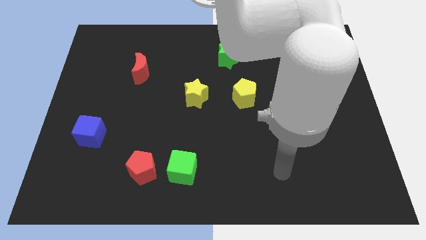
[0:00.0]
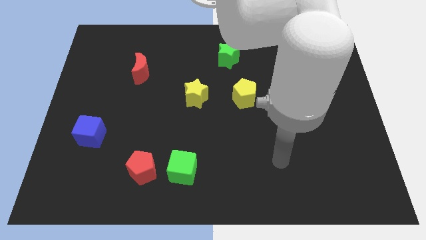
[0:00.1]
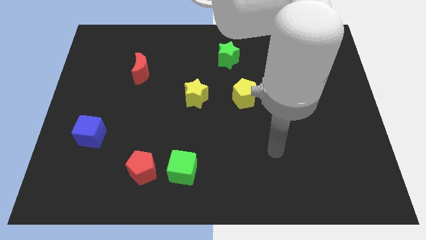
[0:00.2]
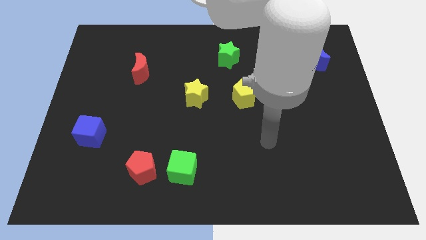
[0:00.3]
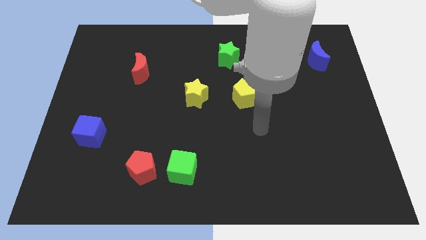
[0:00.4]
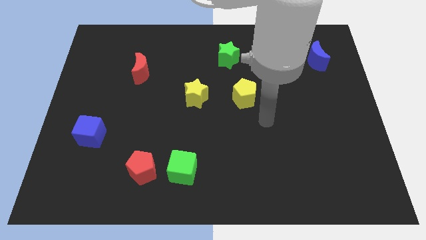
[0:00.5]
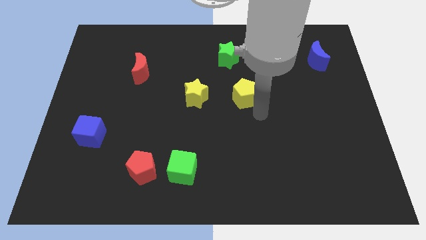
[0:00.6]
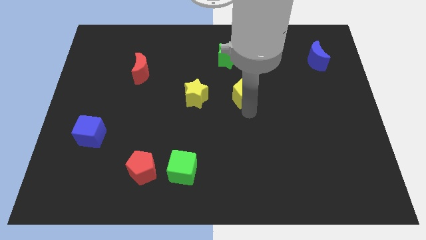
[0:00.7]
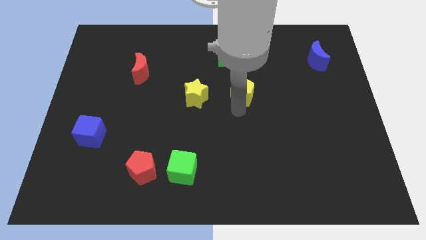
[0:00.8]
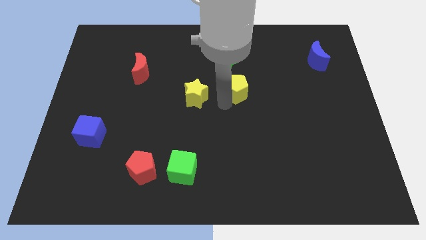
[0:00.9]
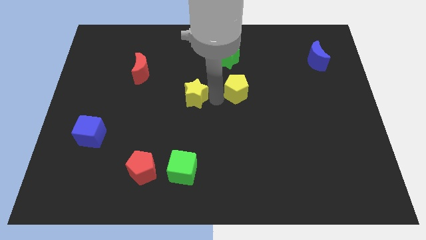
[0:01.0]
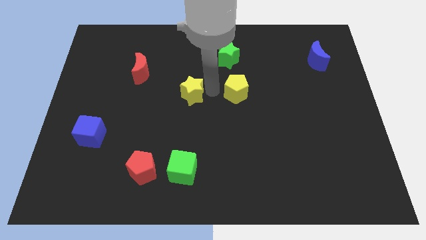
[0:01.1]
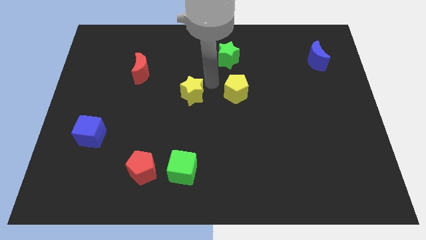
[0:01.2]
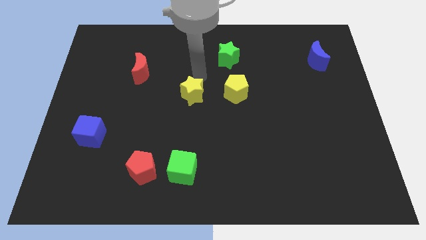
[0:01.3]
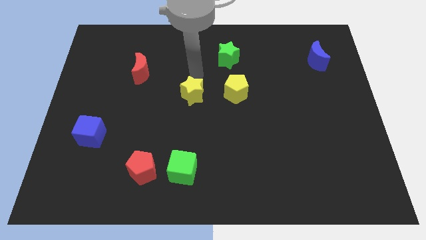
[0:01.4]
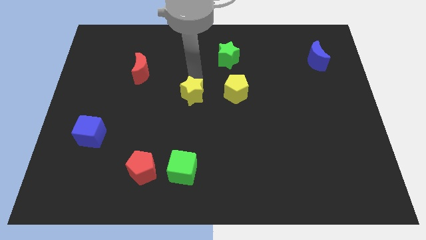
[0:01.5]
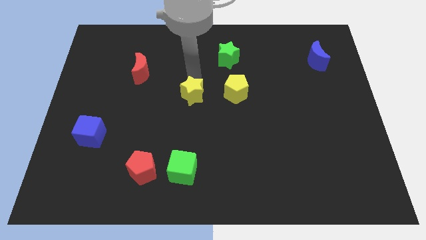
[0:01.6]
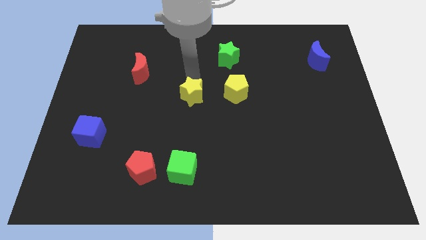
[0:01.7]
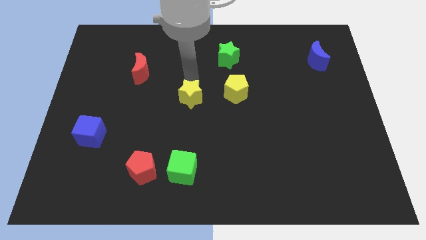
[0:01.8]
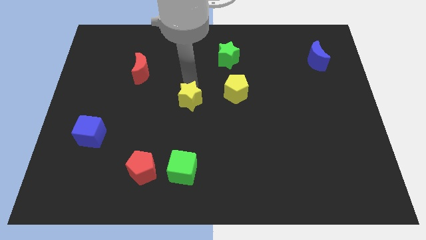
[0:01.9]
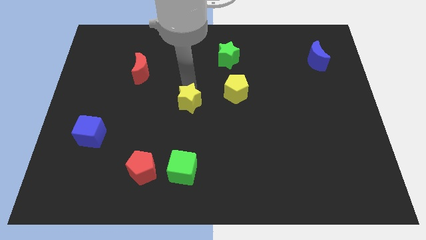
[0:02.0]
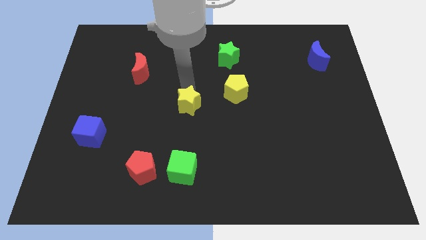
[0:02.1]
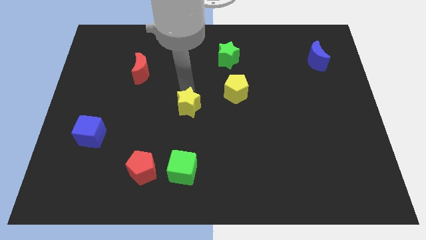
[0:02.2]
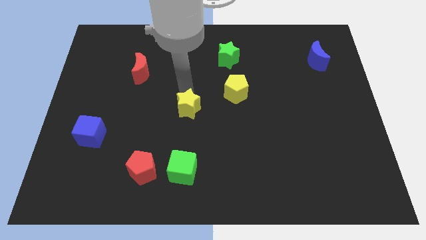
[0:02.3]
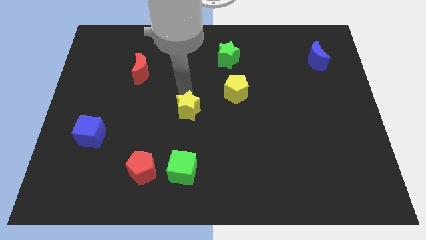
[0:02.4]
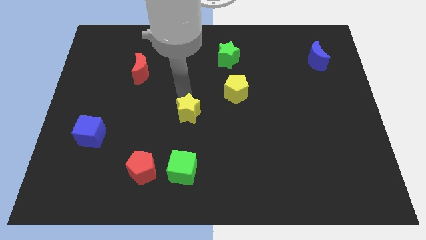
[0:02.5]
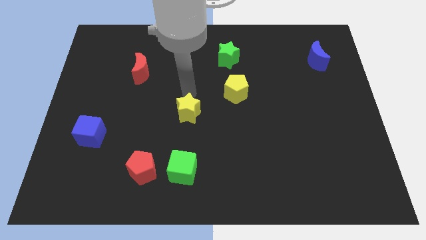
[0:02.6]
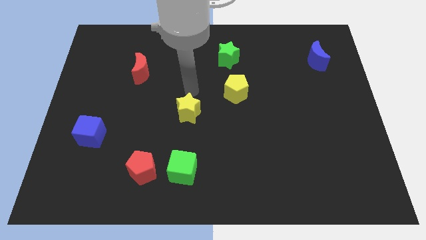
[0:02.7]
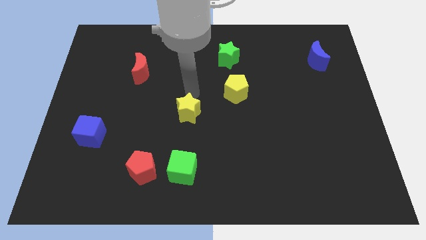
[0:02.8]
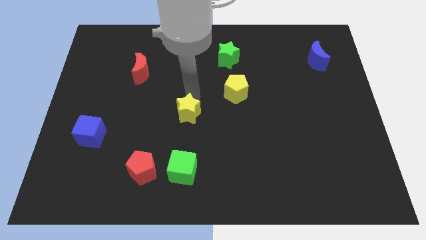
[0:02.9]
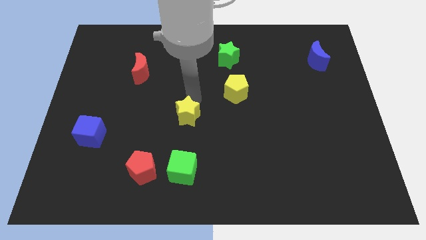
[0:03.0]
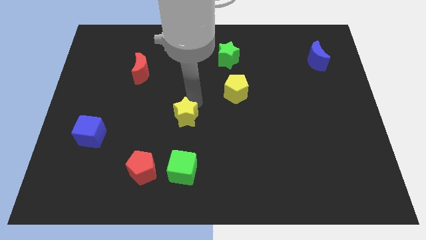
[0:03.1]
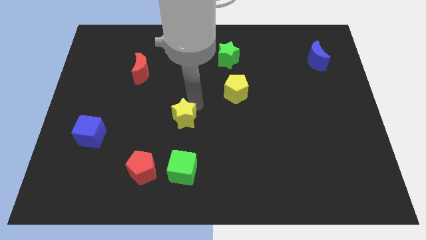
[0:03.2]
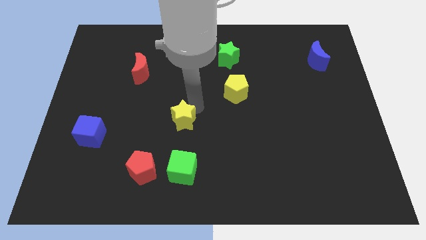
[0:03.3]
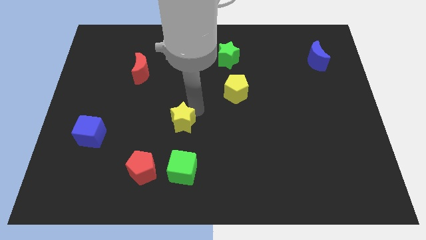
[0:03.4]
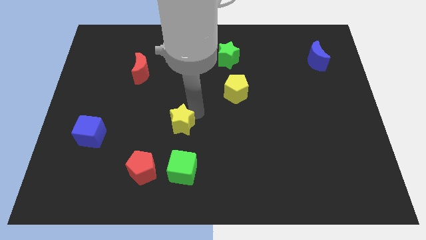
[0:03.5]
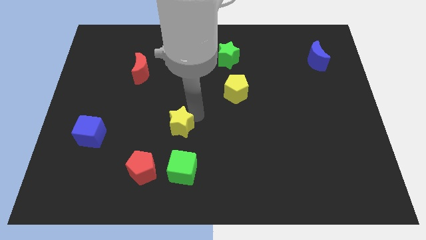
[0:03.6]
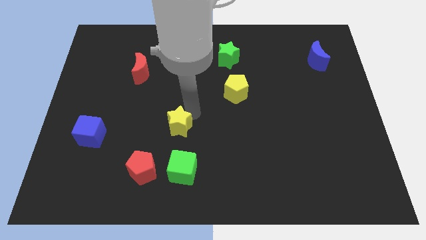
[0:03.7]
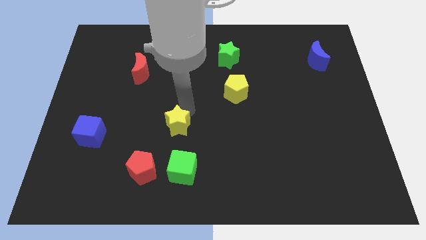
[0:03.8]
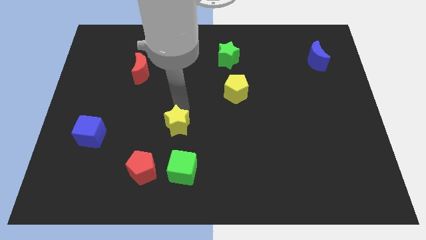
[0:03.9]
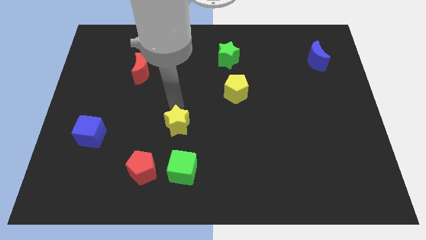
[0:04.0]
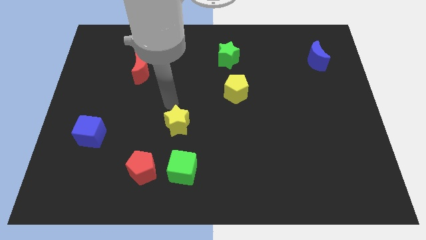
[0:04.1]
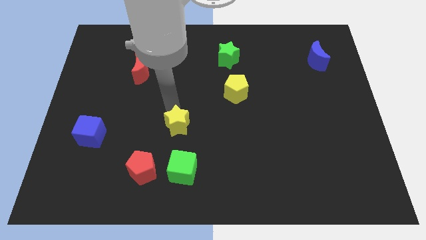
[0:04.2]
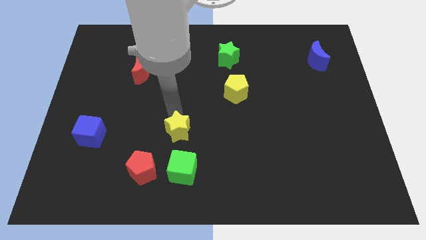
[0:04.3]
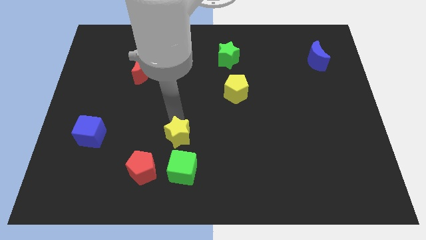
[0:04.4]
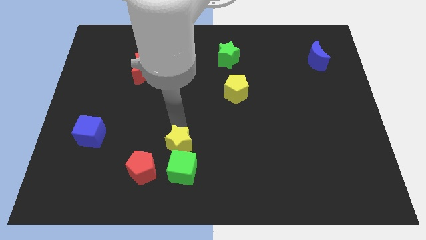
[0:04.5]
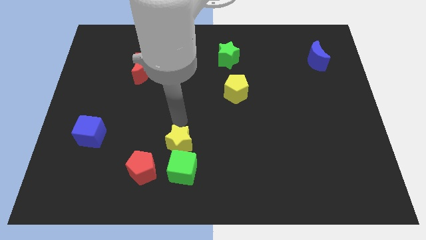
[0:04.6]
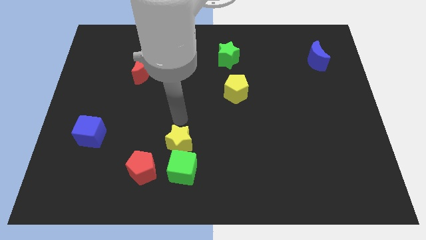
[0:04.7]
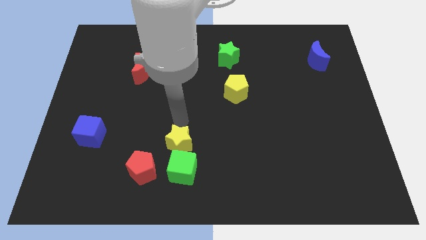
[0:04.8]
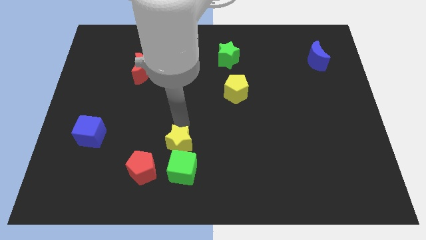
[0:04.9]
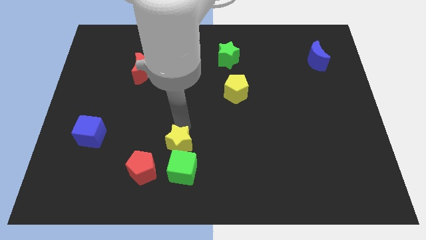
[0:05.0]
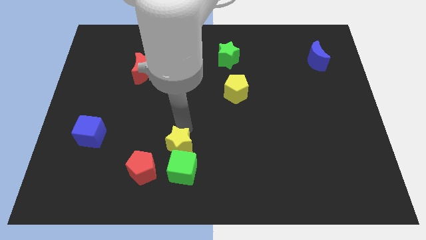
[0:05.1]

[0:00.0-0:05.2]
slide the yellow star close to the green cube

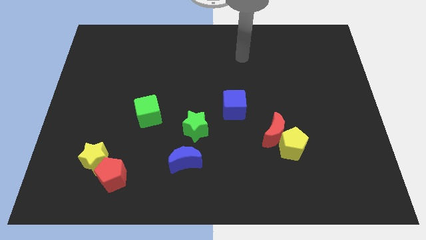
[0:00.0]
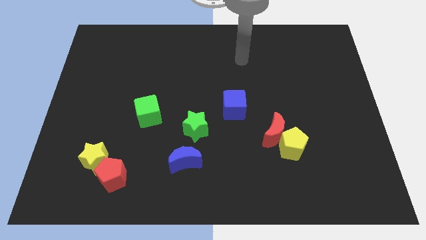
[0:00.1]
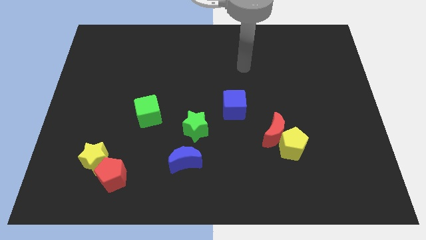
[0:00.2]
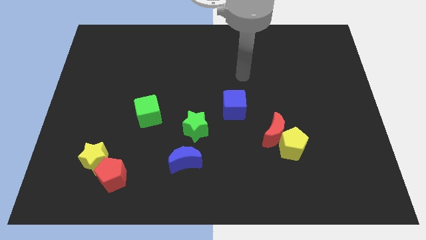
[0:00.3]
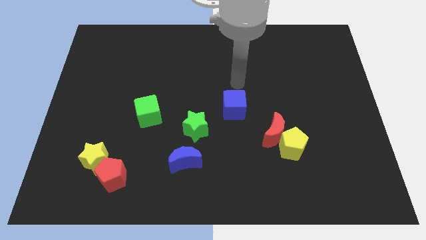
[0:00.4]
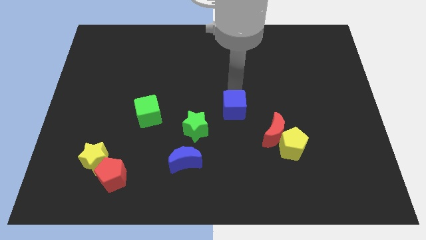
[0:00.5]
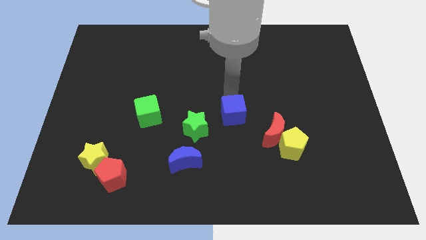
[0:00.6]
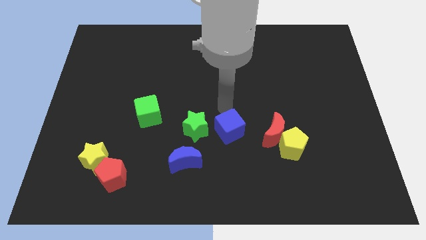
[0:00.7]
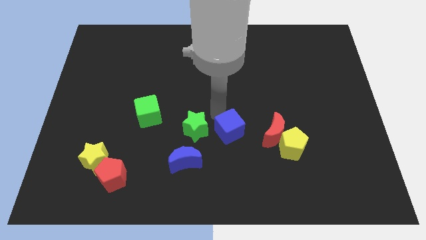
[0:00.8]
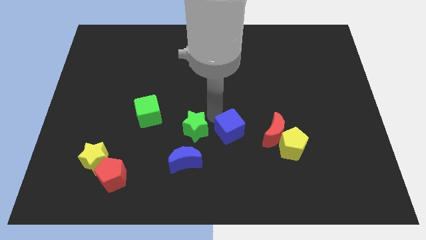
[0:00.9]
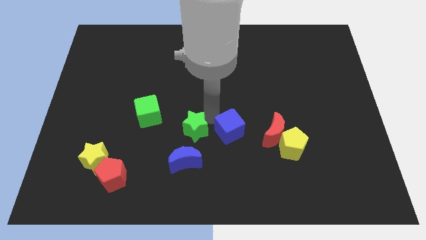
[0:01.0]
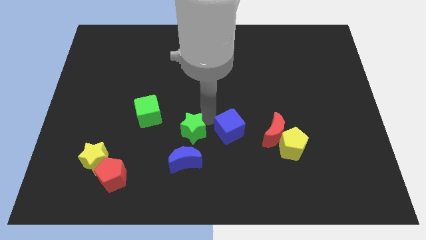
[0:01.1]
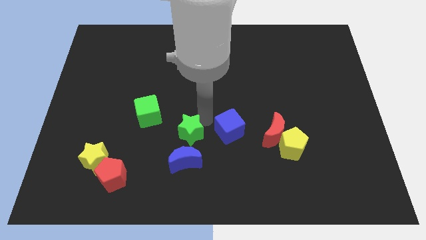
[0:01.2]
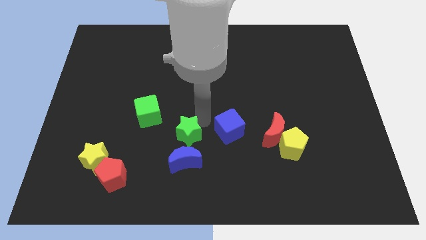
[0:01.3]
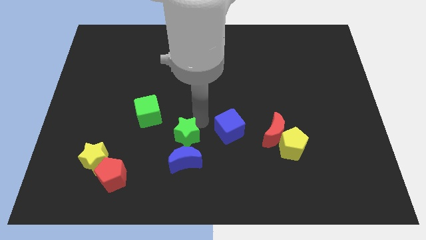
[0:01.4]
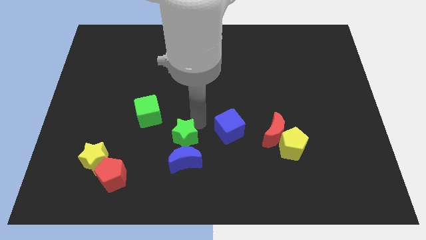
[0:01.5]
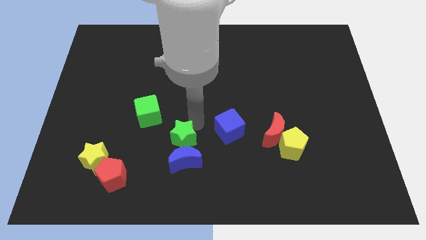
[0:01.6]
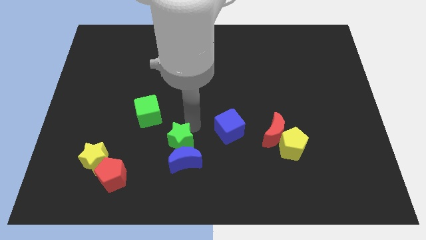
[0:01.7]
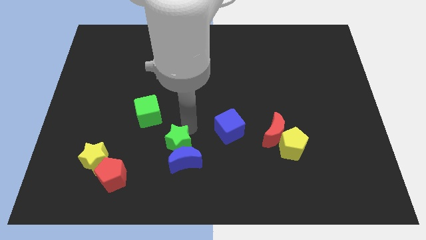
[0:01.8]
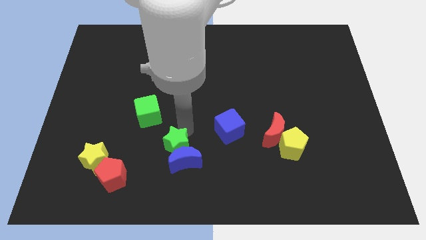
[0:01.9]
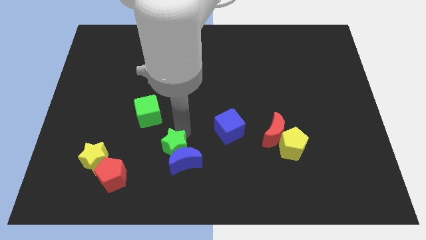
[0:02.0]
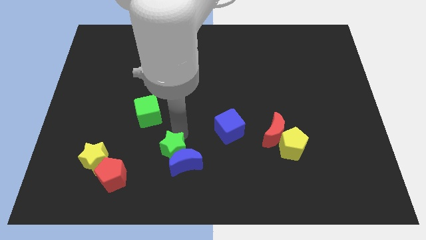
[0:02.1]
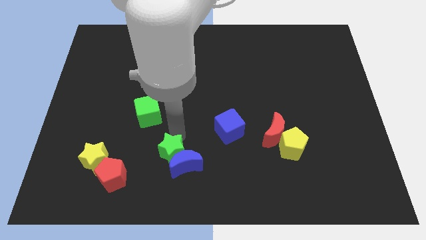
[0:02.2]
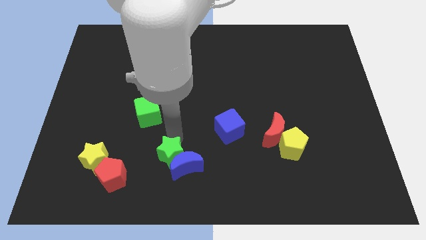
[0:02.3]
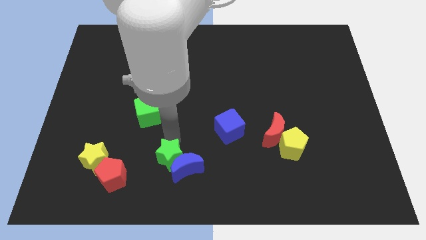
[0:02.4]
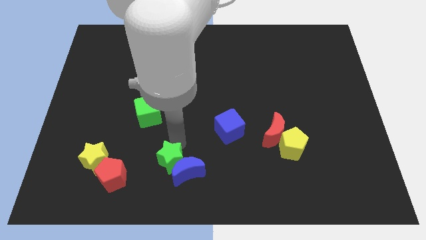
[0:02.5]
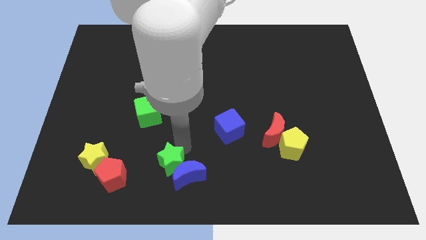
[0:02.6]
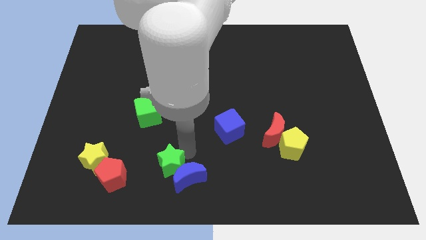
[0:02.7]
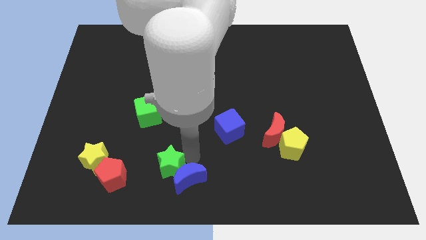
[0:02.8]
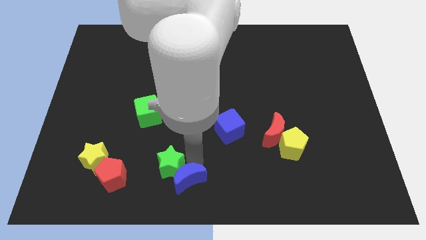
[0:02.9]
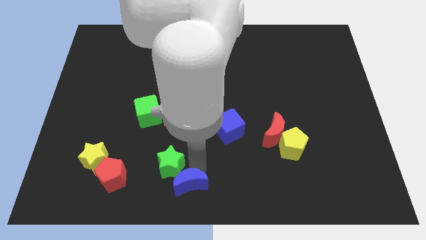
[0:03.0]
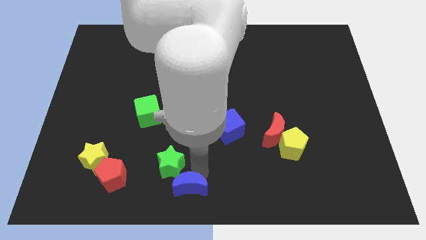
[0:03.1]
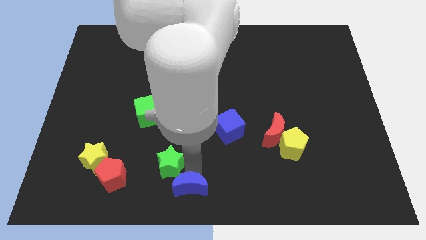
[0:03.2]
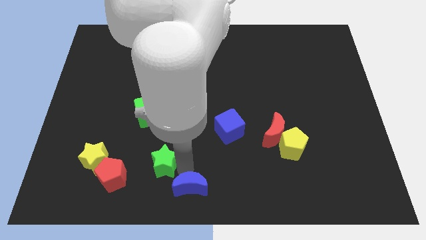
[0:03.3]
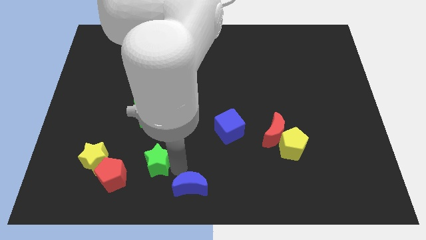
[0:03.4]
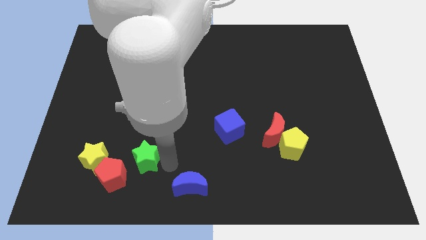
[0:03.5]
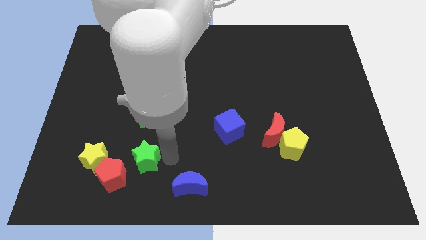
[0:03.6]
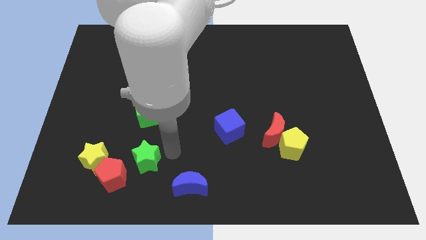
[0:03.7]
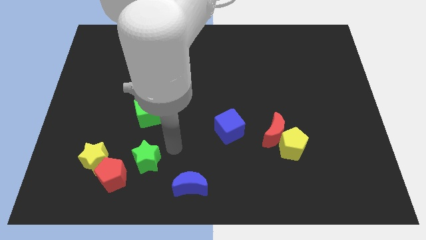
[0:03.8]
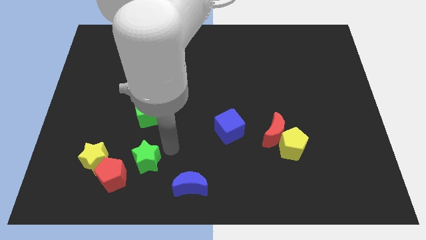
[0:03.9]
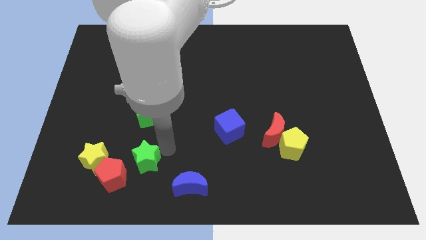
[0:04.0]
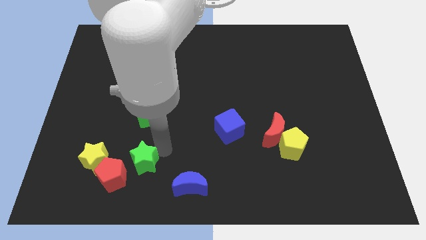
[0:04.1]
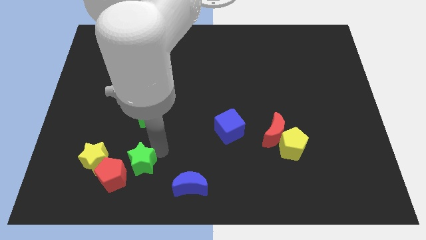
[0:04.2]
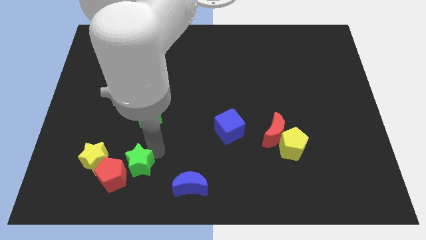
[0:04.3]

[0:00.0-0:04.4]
slide the green star close to the red pentagon
